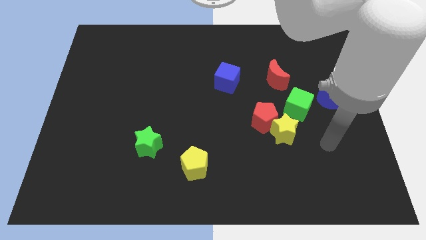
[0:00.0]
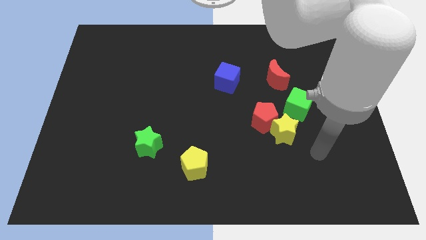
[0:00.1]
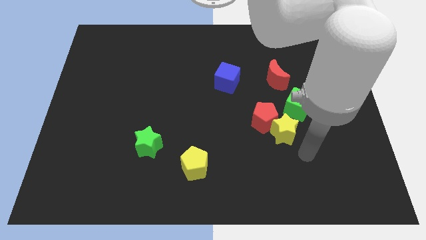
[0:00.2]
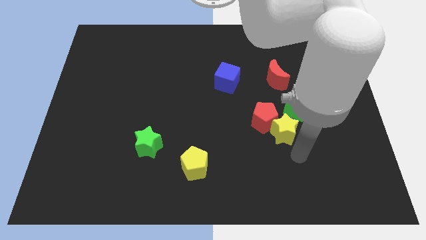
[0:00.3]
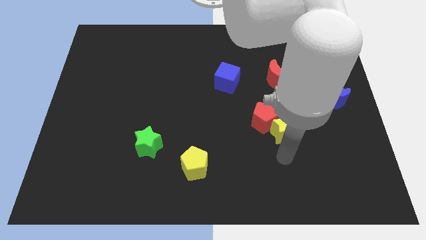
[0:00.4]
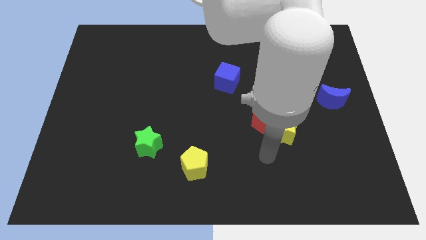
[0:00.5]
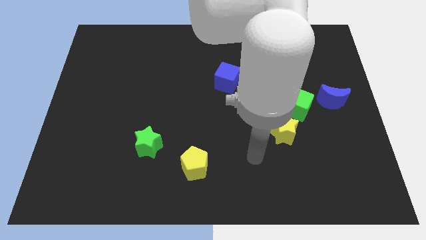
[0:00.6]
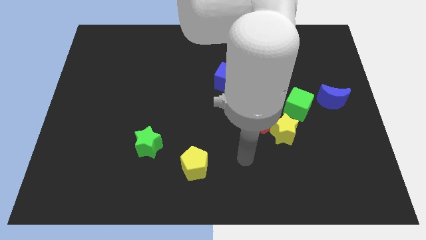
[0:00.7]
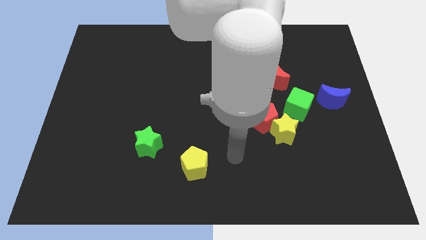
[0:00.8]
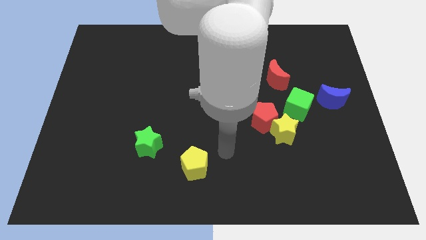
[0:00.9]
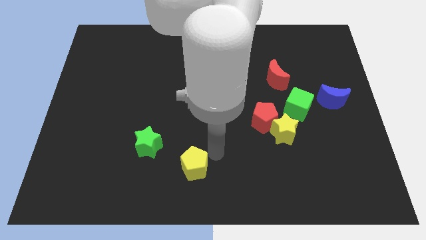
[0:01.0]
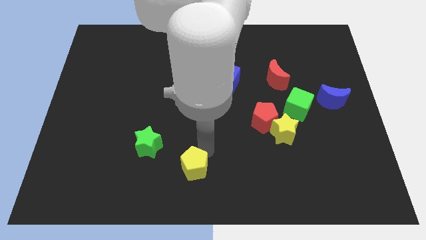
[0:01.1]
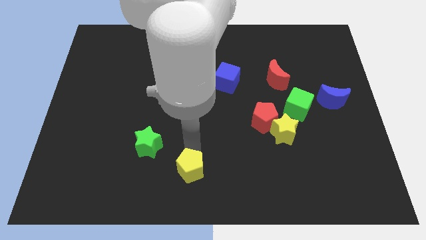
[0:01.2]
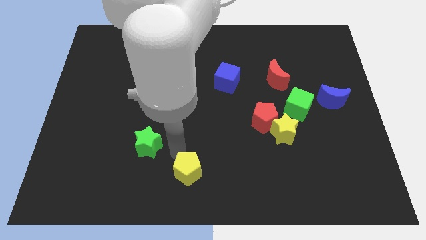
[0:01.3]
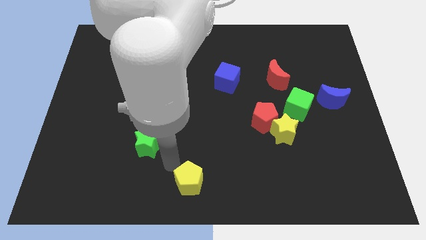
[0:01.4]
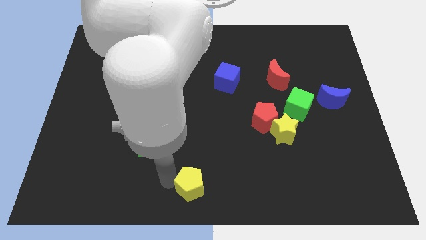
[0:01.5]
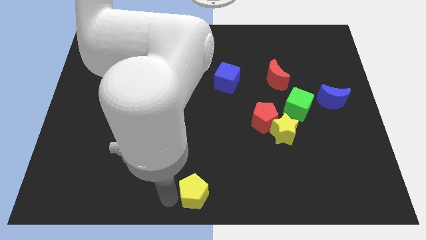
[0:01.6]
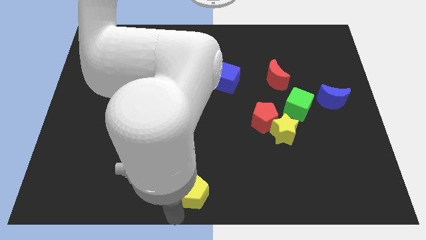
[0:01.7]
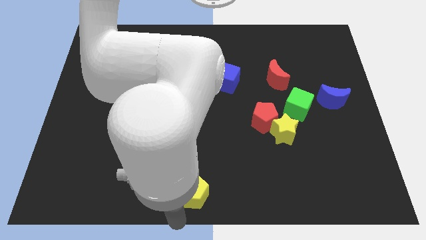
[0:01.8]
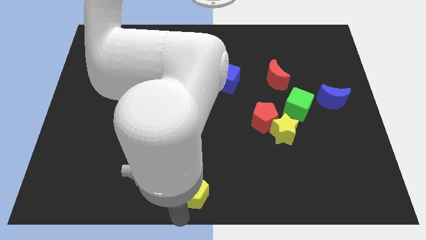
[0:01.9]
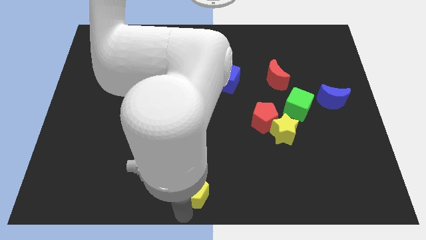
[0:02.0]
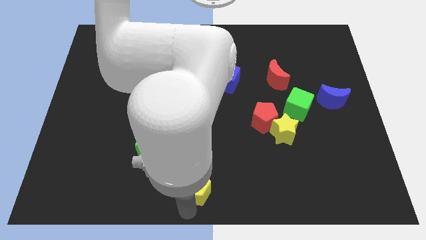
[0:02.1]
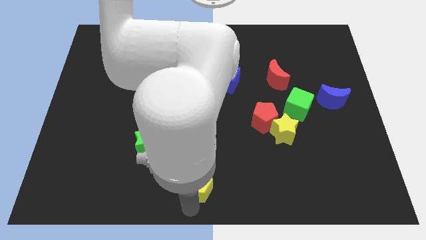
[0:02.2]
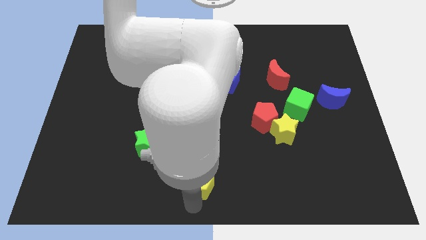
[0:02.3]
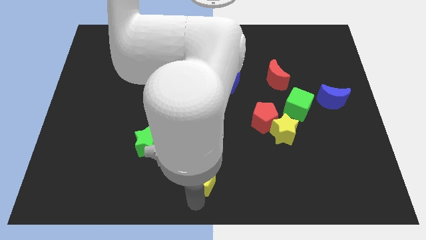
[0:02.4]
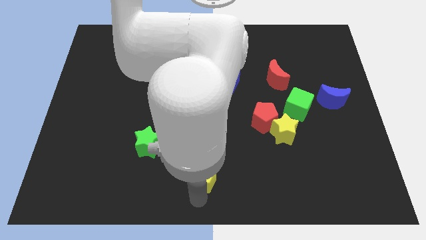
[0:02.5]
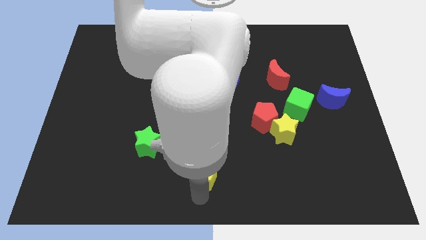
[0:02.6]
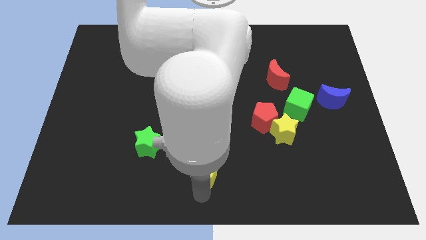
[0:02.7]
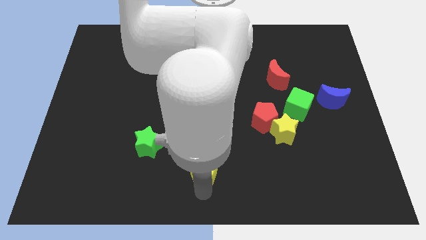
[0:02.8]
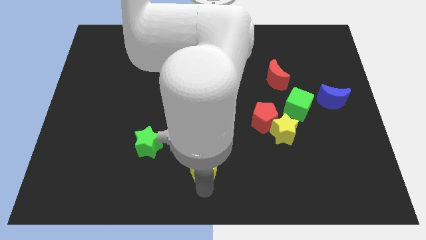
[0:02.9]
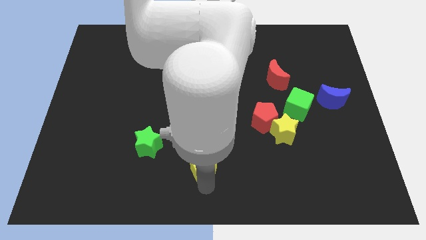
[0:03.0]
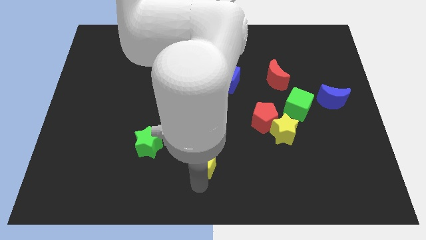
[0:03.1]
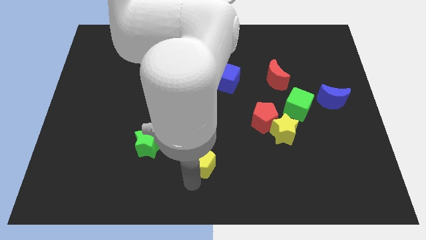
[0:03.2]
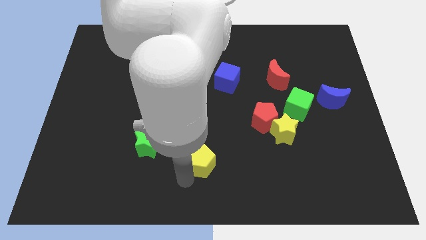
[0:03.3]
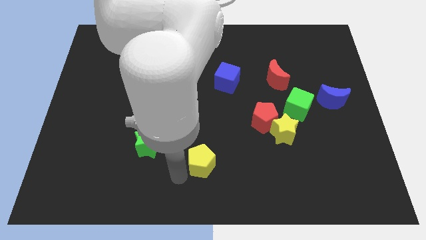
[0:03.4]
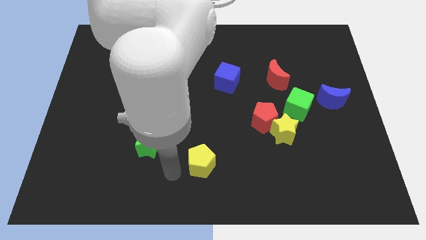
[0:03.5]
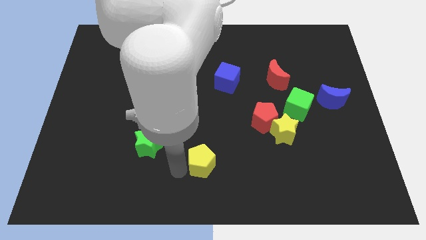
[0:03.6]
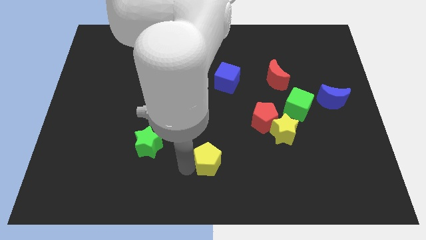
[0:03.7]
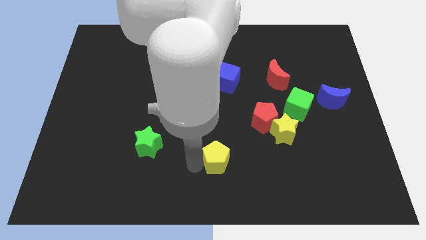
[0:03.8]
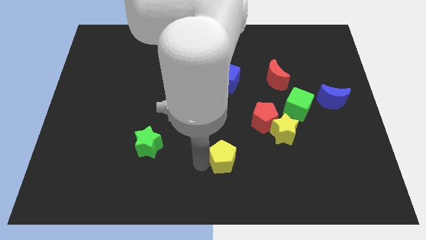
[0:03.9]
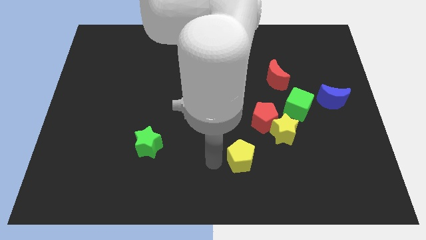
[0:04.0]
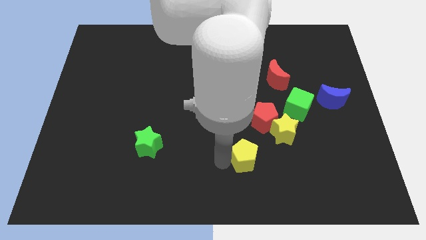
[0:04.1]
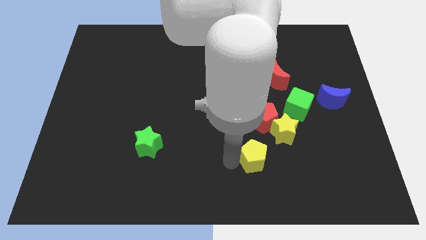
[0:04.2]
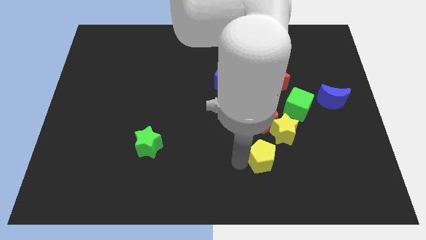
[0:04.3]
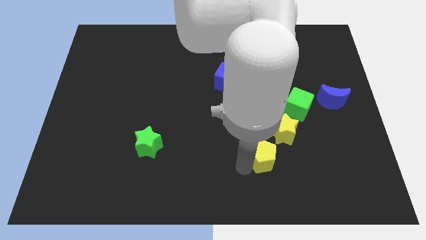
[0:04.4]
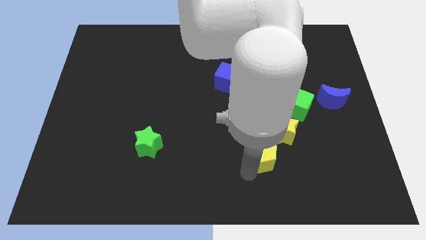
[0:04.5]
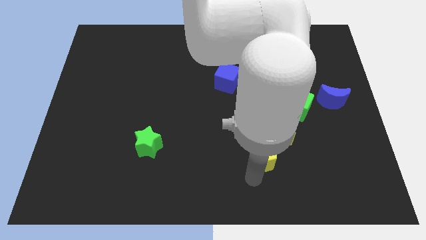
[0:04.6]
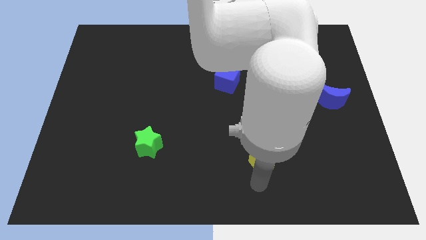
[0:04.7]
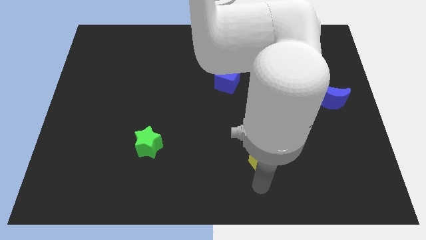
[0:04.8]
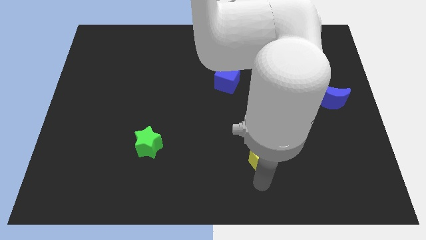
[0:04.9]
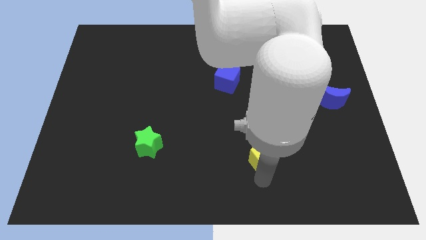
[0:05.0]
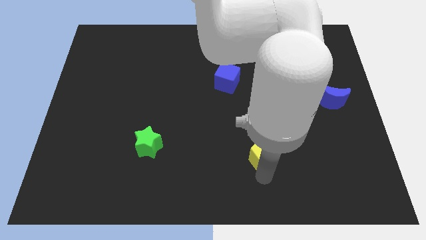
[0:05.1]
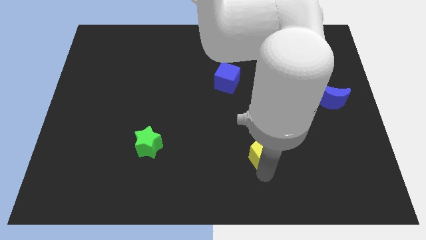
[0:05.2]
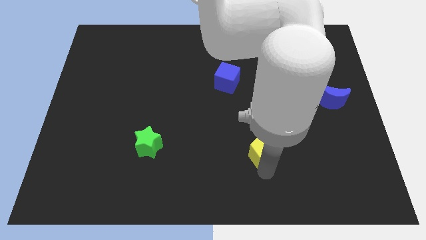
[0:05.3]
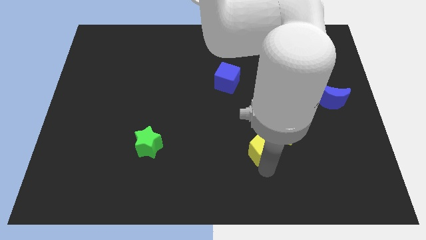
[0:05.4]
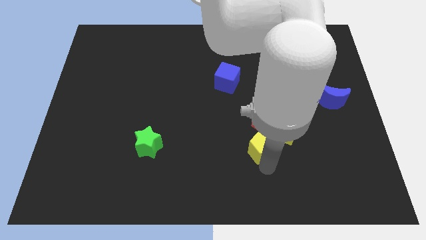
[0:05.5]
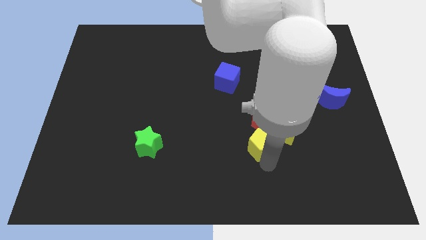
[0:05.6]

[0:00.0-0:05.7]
slide the yellow pentagon to the yellow star

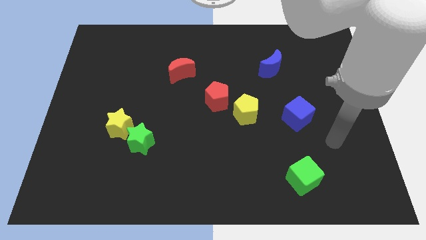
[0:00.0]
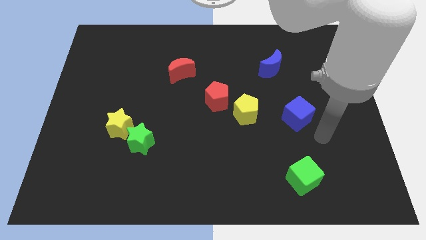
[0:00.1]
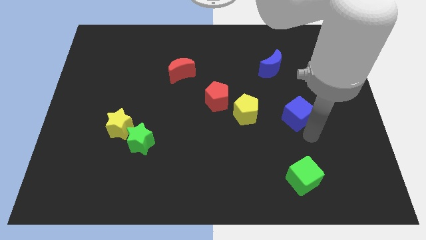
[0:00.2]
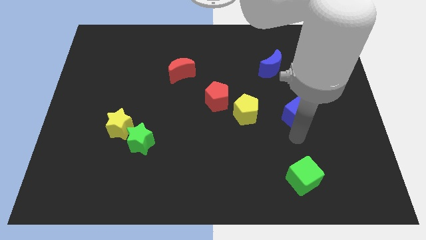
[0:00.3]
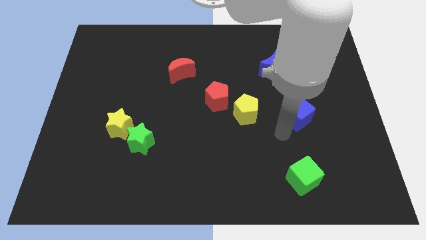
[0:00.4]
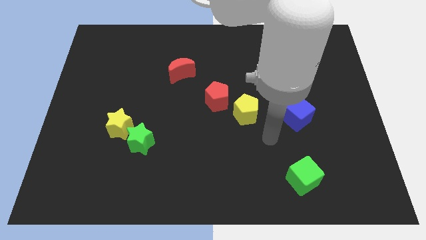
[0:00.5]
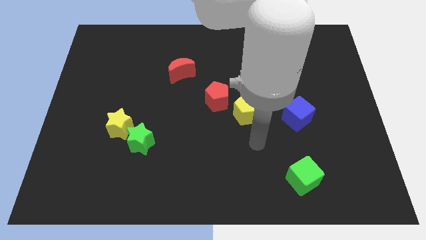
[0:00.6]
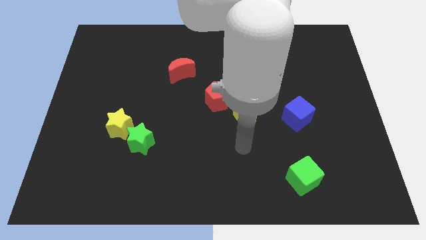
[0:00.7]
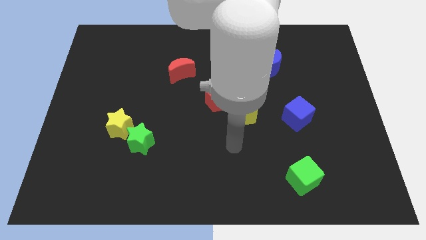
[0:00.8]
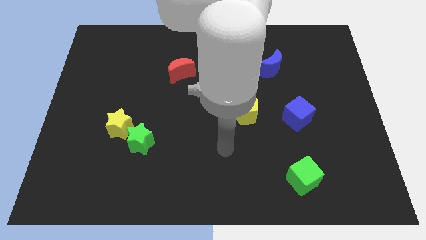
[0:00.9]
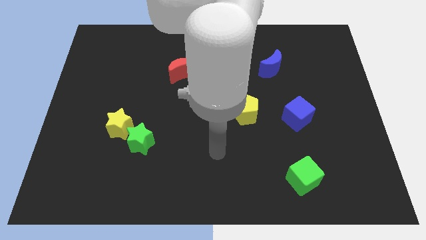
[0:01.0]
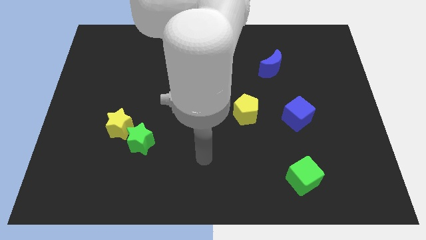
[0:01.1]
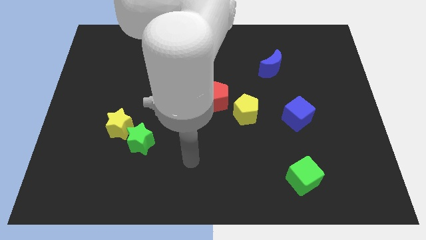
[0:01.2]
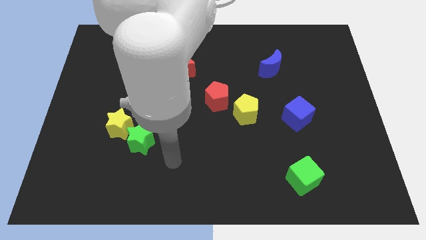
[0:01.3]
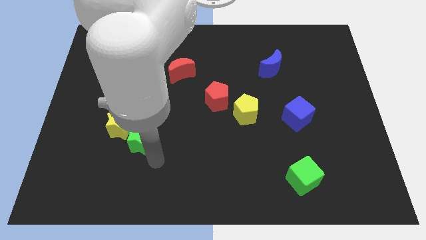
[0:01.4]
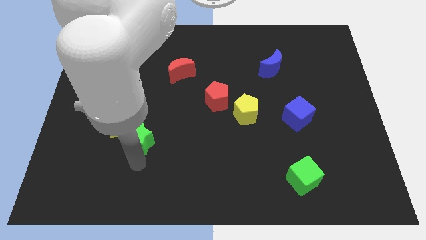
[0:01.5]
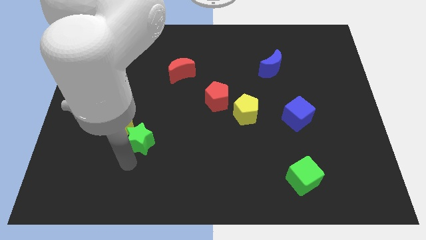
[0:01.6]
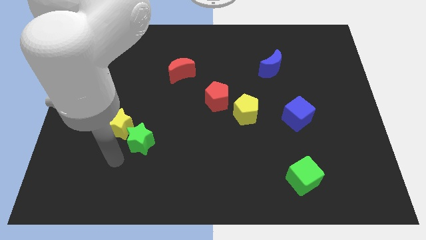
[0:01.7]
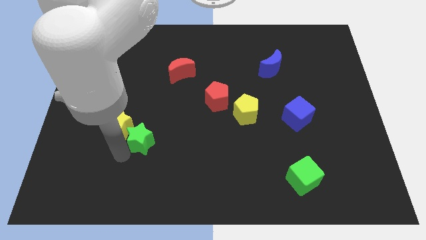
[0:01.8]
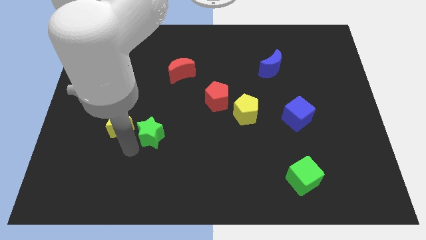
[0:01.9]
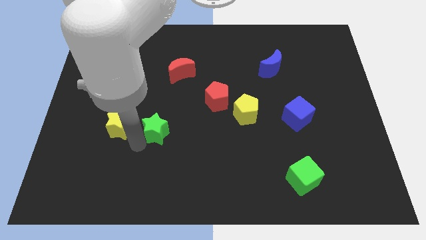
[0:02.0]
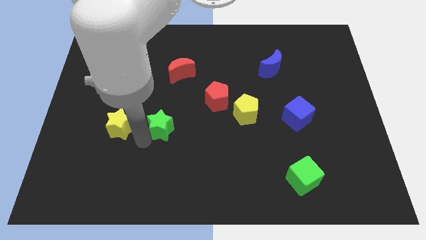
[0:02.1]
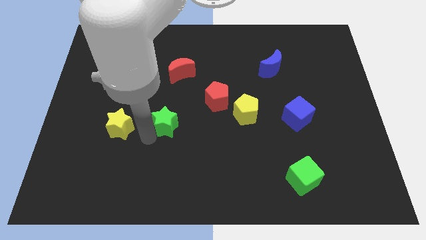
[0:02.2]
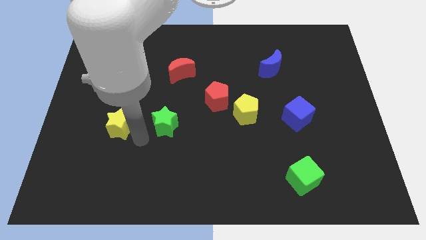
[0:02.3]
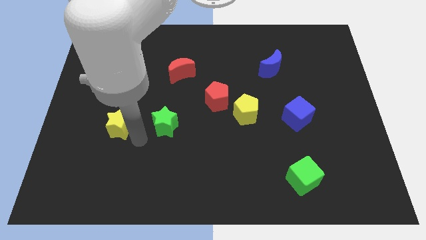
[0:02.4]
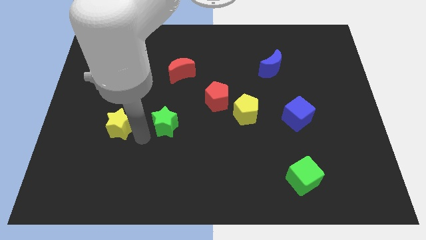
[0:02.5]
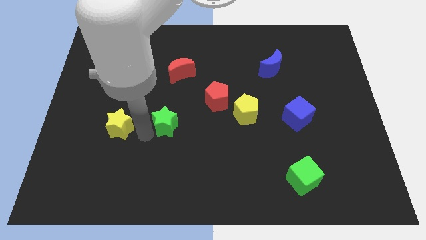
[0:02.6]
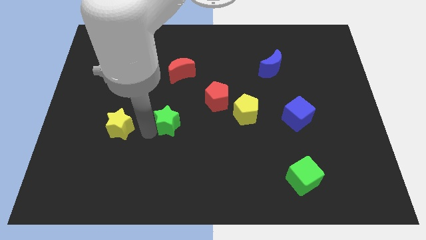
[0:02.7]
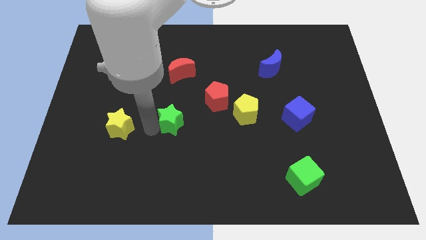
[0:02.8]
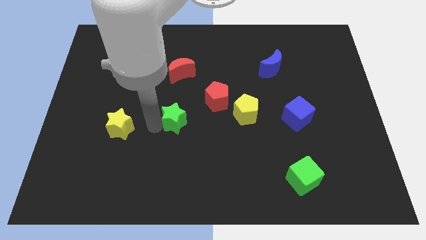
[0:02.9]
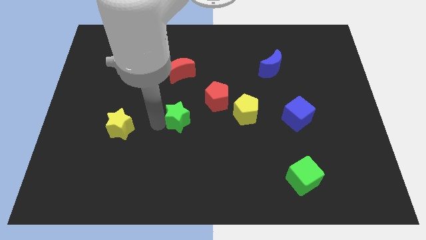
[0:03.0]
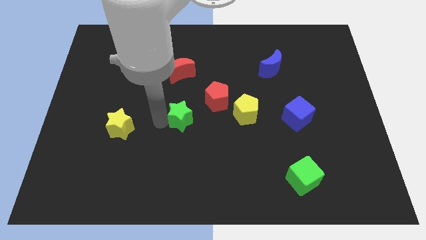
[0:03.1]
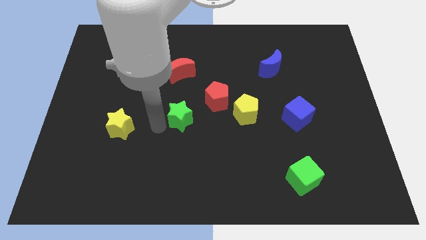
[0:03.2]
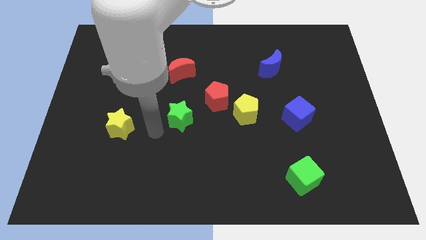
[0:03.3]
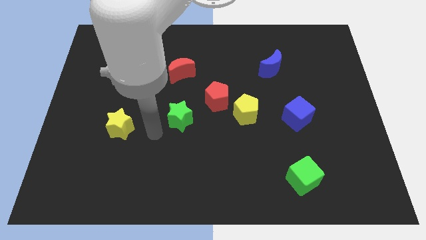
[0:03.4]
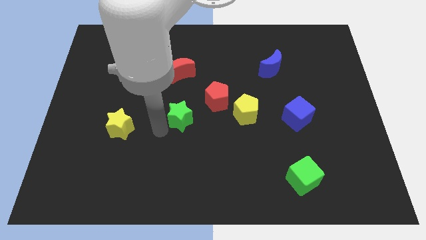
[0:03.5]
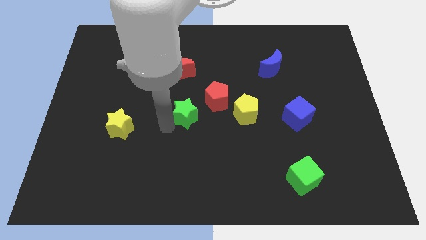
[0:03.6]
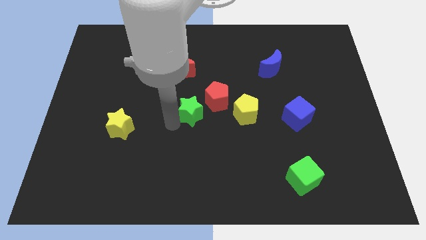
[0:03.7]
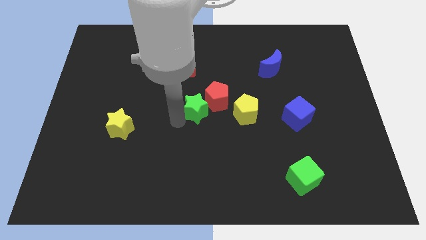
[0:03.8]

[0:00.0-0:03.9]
move the green star towards the red pentagon
